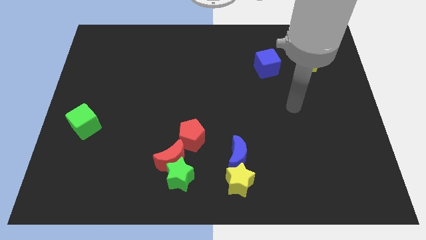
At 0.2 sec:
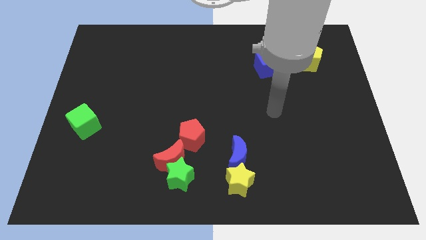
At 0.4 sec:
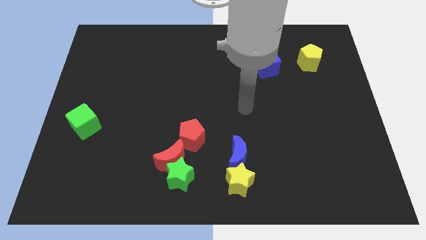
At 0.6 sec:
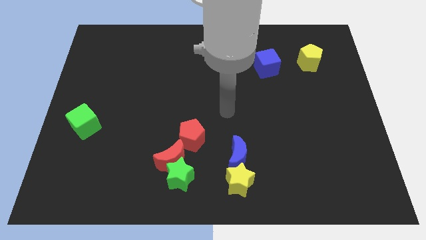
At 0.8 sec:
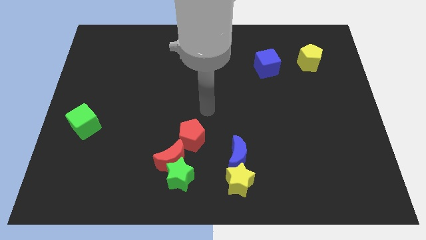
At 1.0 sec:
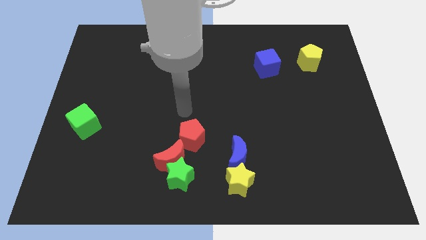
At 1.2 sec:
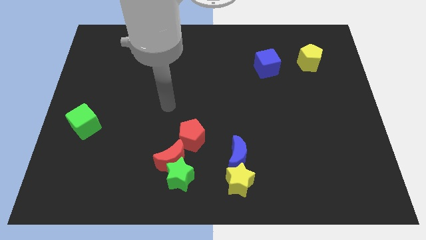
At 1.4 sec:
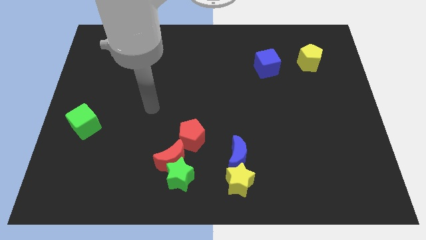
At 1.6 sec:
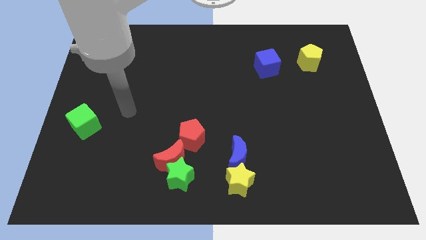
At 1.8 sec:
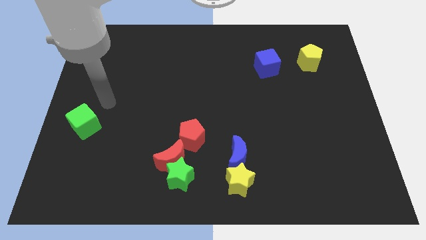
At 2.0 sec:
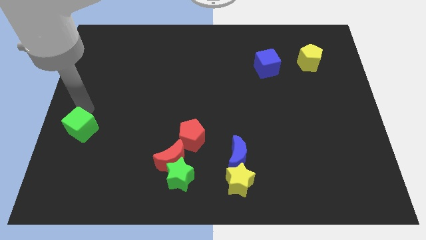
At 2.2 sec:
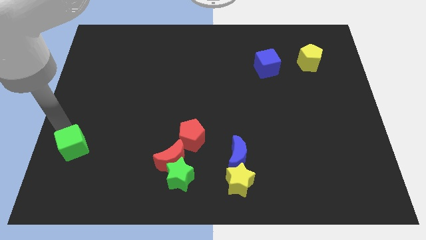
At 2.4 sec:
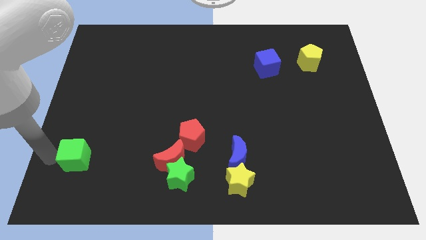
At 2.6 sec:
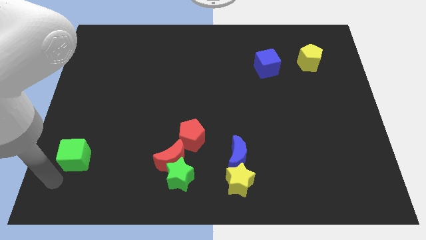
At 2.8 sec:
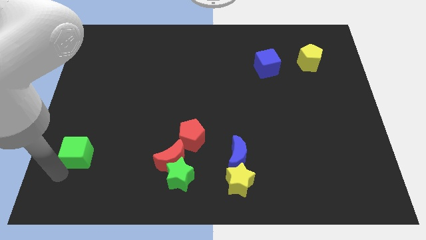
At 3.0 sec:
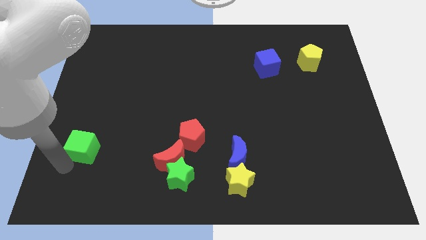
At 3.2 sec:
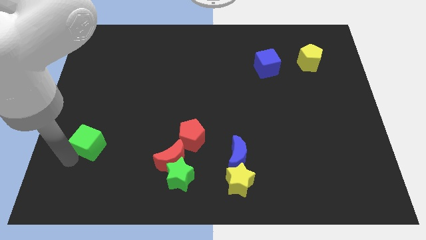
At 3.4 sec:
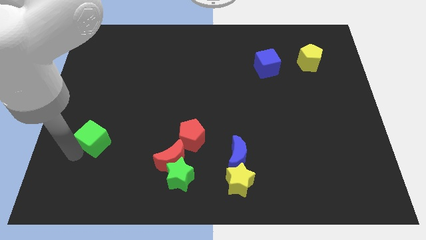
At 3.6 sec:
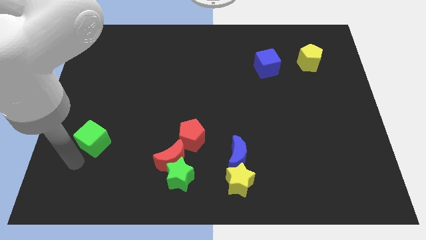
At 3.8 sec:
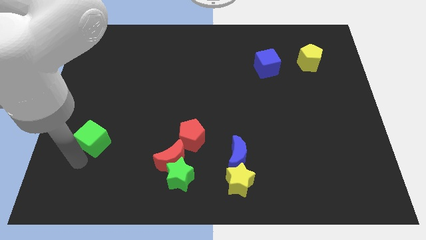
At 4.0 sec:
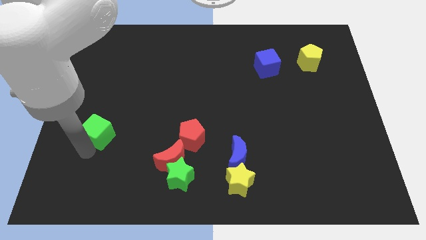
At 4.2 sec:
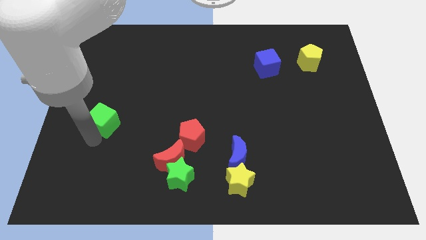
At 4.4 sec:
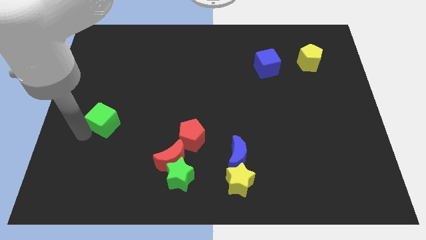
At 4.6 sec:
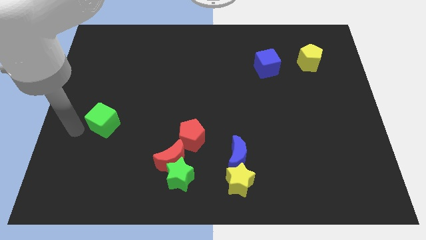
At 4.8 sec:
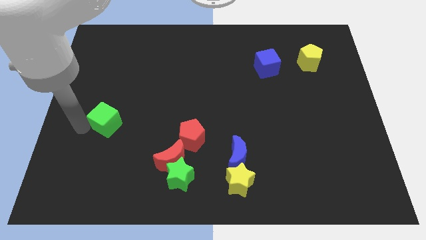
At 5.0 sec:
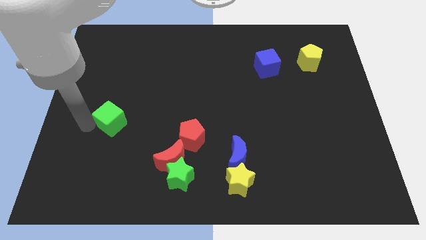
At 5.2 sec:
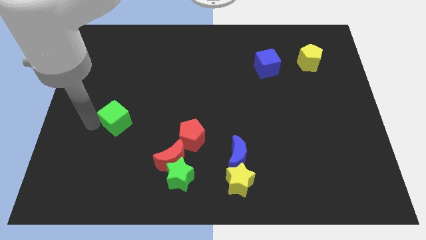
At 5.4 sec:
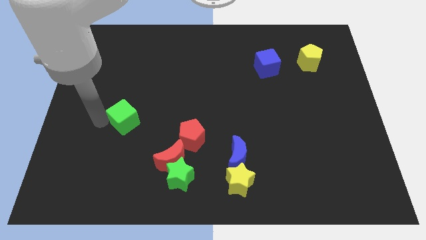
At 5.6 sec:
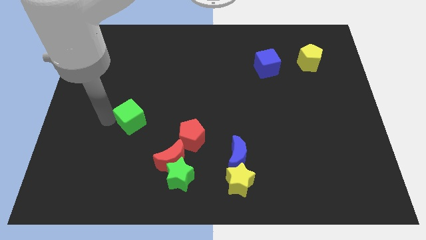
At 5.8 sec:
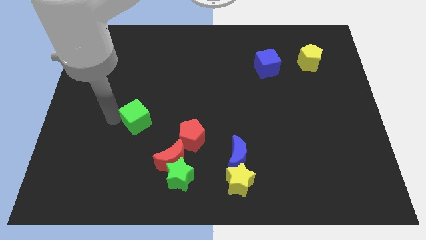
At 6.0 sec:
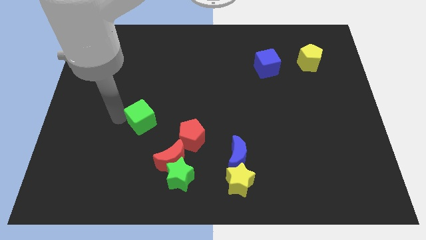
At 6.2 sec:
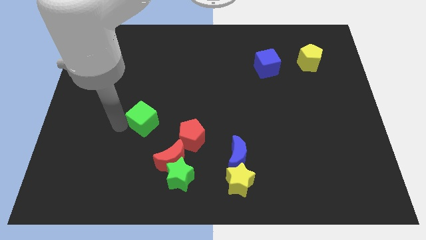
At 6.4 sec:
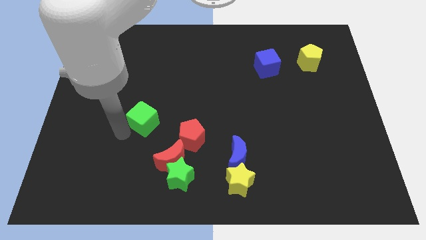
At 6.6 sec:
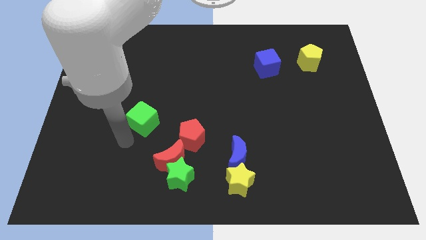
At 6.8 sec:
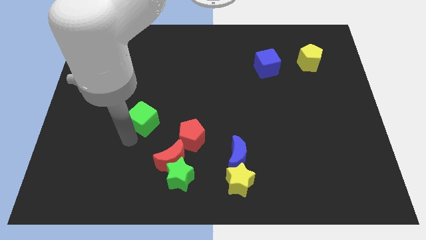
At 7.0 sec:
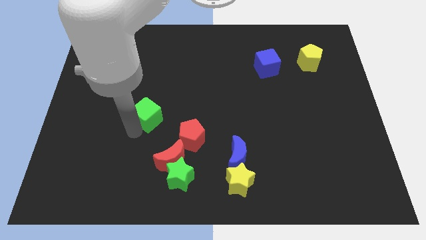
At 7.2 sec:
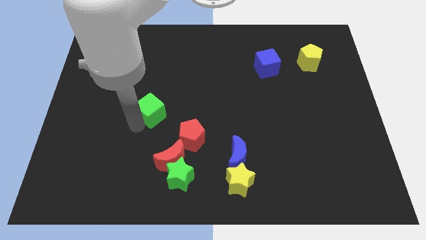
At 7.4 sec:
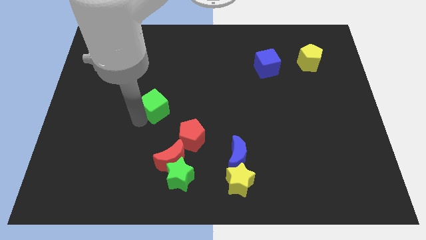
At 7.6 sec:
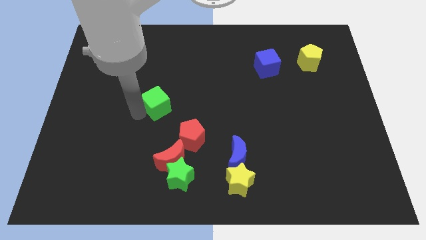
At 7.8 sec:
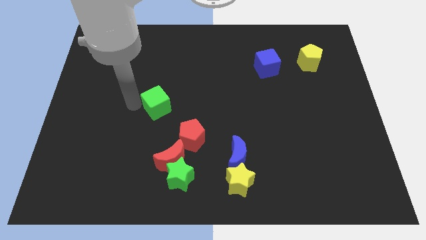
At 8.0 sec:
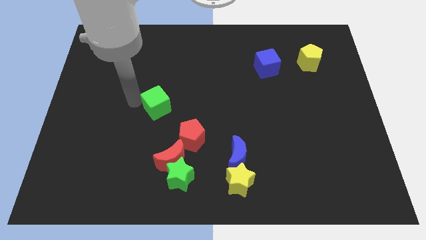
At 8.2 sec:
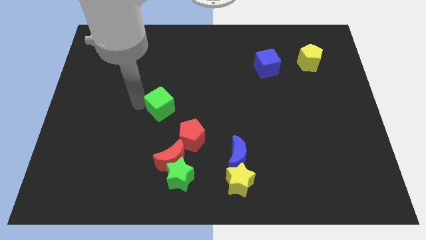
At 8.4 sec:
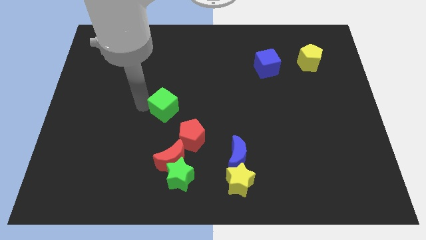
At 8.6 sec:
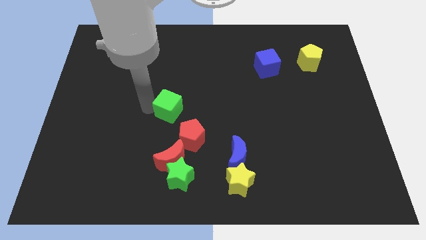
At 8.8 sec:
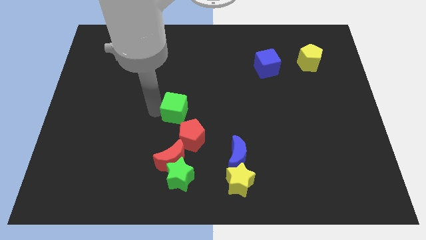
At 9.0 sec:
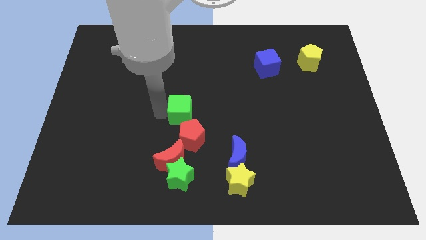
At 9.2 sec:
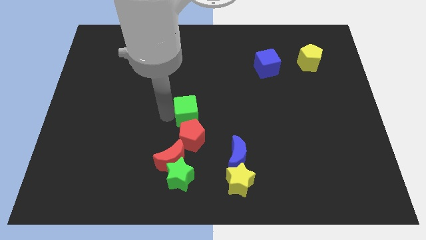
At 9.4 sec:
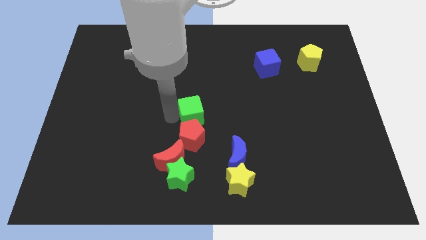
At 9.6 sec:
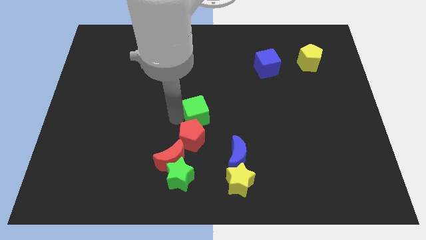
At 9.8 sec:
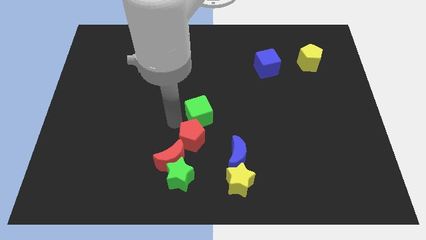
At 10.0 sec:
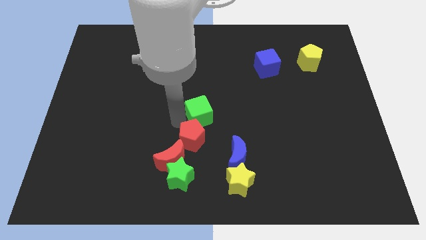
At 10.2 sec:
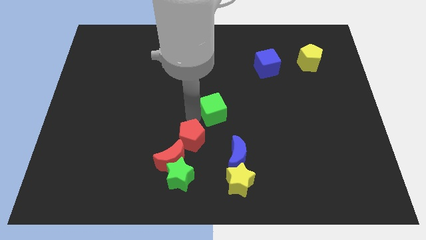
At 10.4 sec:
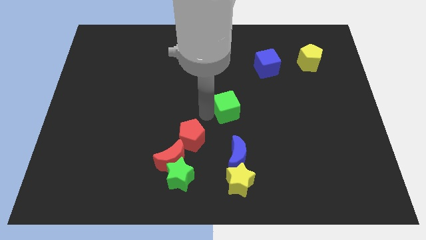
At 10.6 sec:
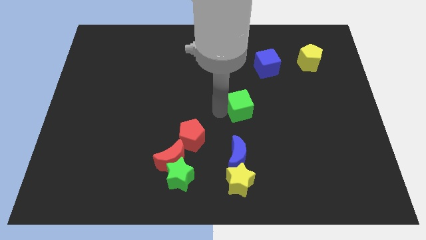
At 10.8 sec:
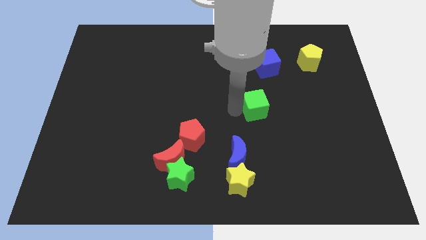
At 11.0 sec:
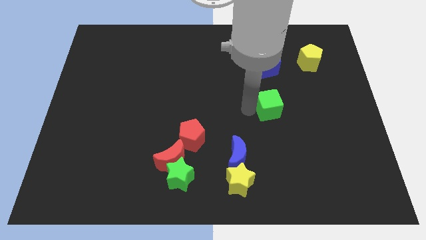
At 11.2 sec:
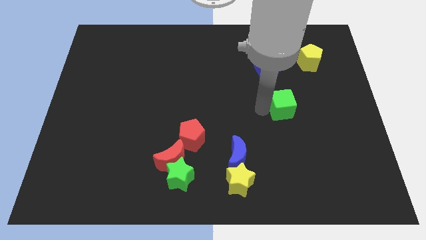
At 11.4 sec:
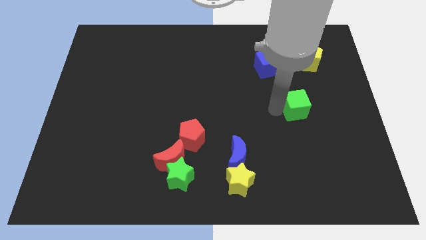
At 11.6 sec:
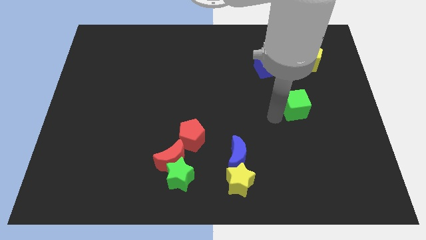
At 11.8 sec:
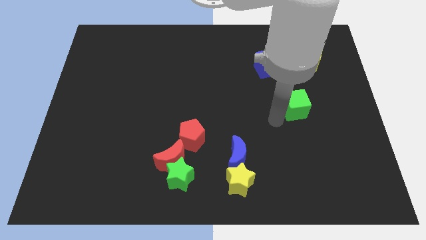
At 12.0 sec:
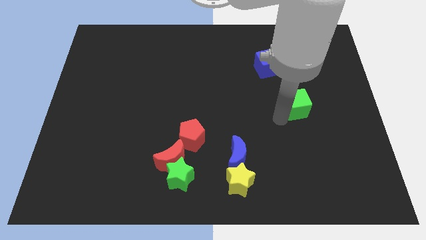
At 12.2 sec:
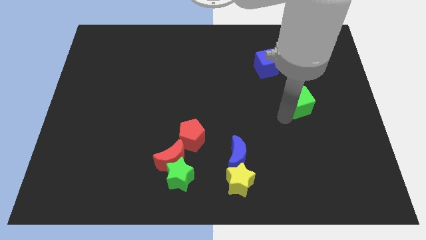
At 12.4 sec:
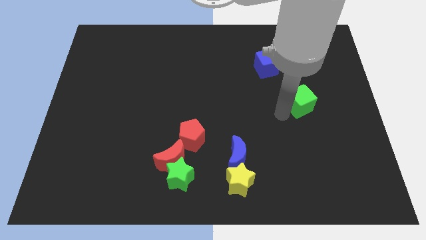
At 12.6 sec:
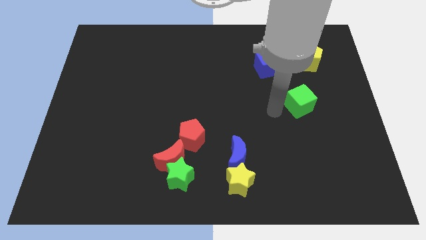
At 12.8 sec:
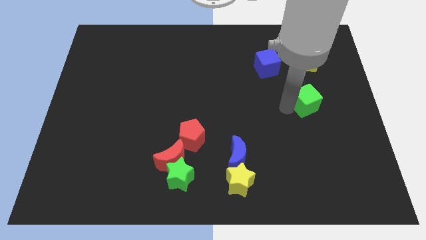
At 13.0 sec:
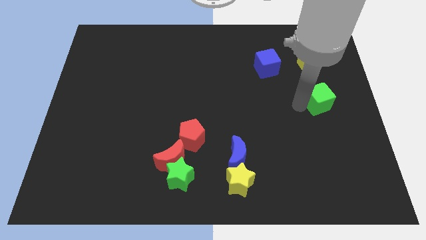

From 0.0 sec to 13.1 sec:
put the green cube to the right side
